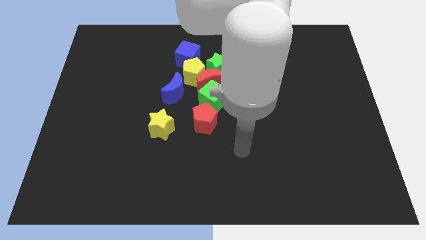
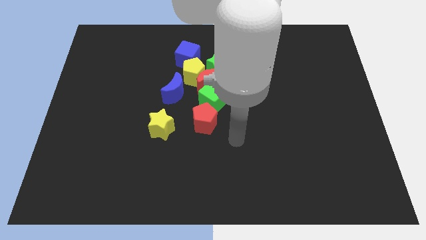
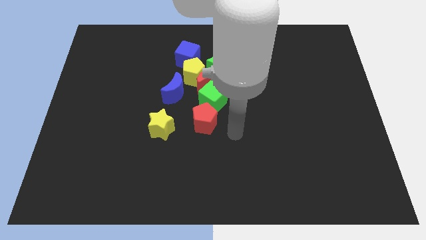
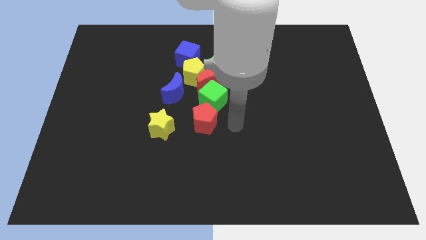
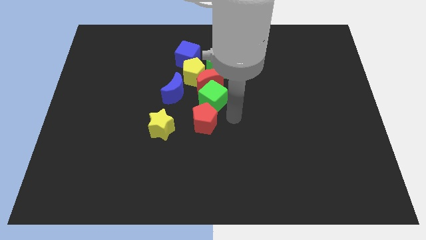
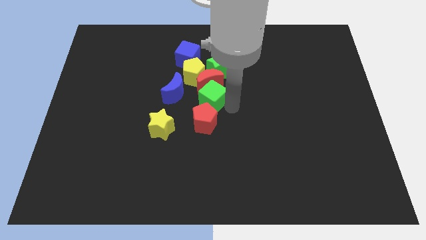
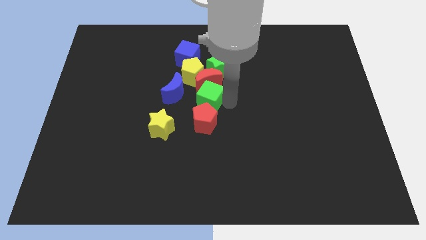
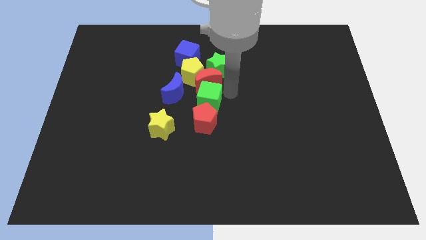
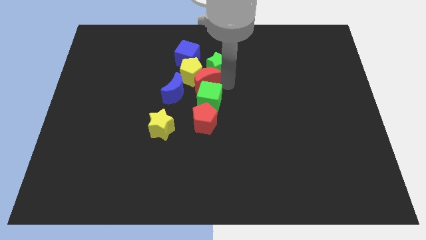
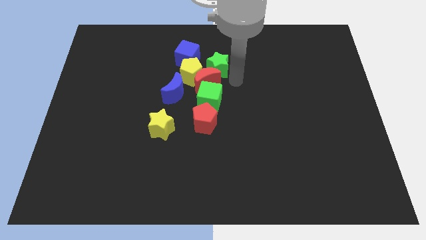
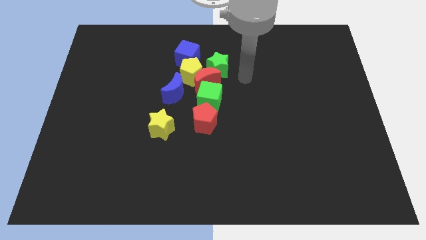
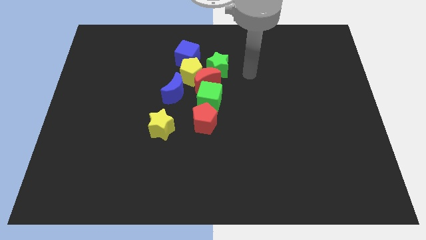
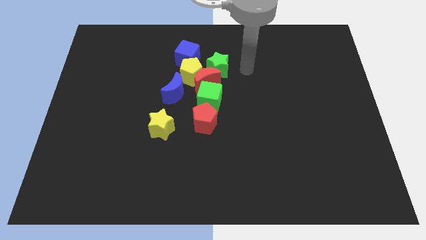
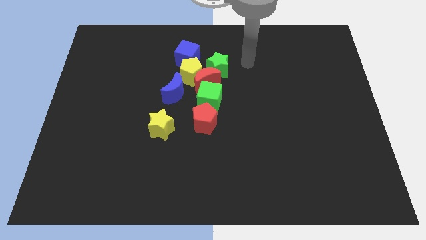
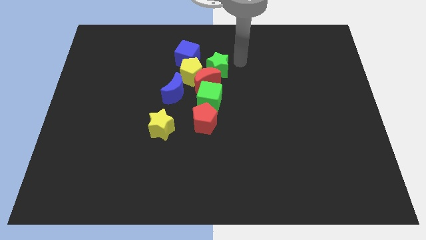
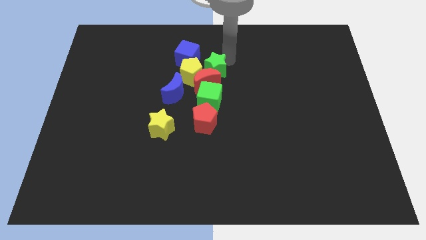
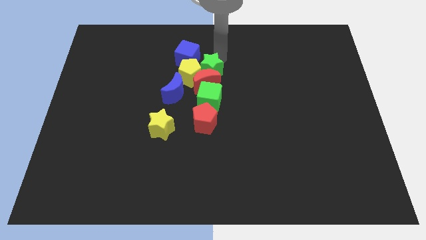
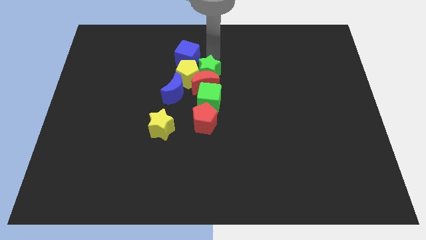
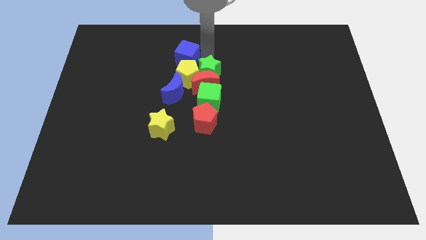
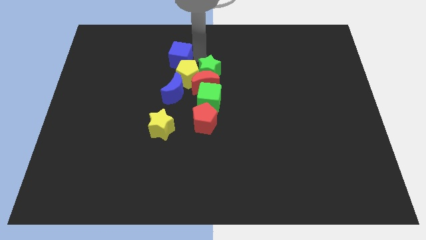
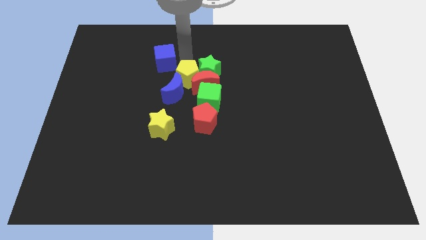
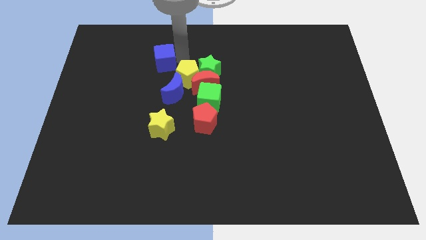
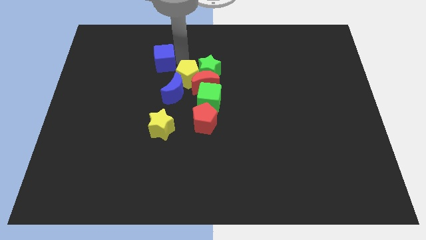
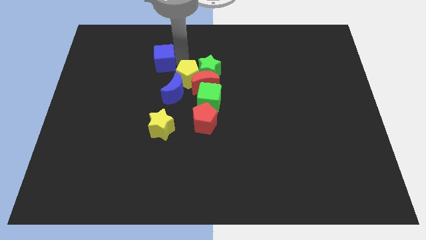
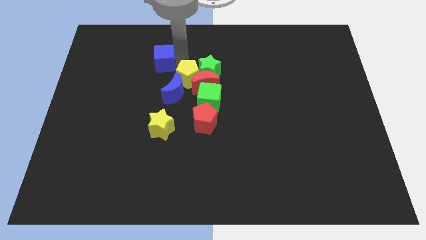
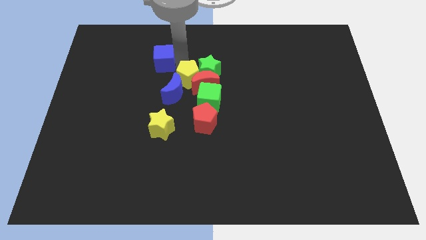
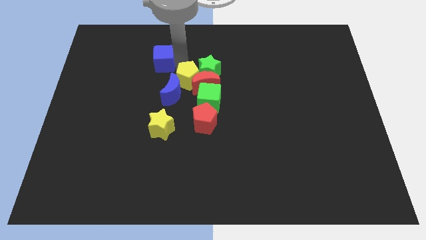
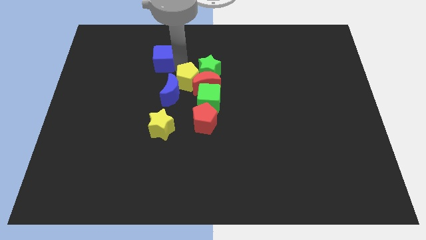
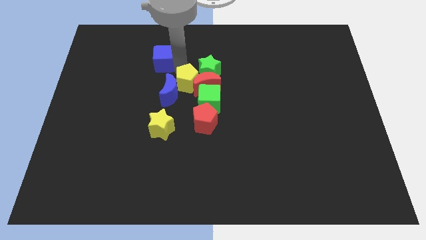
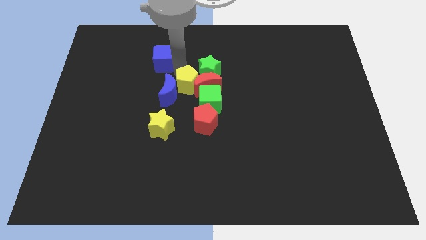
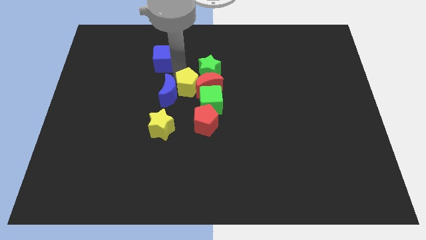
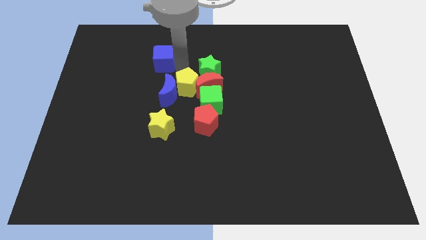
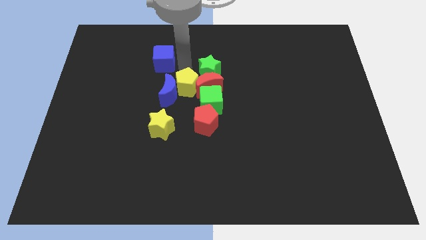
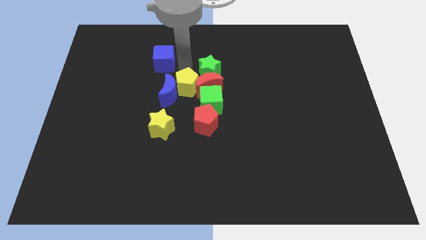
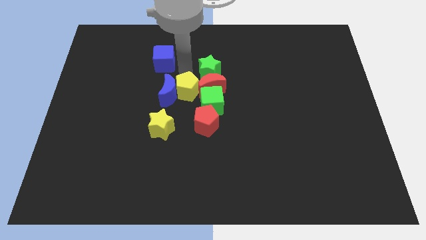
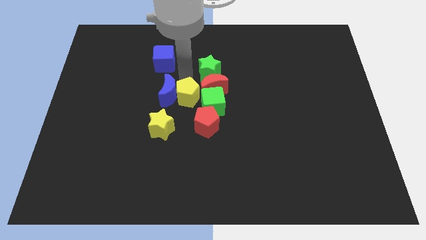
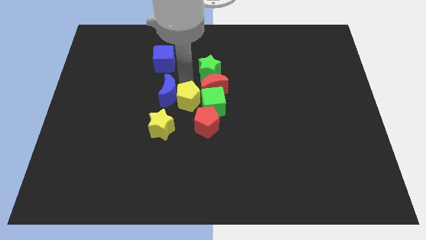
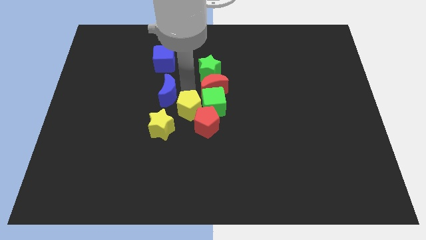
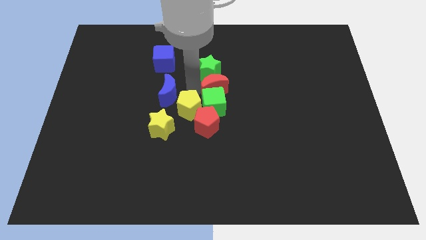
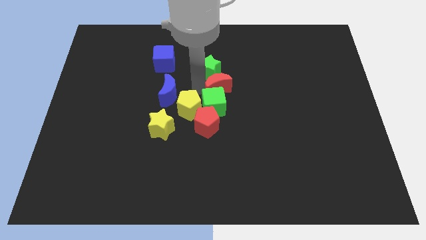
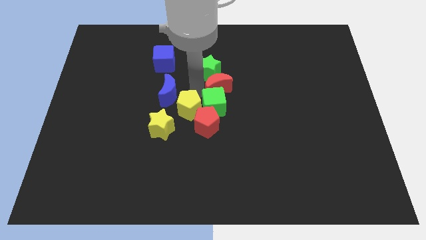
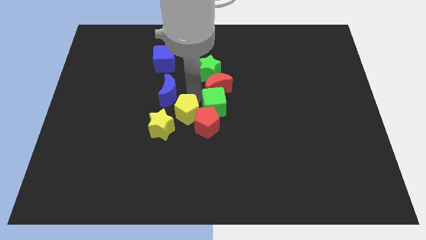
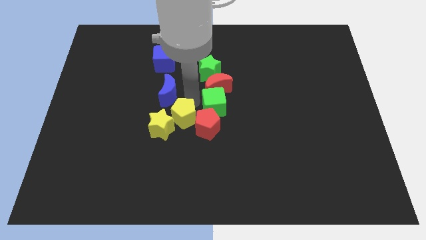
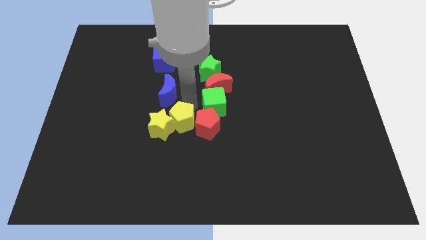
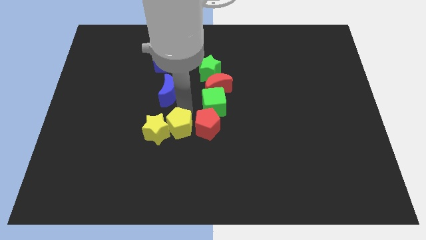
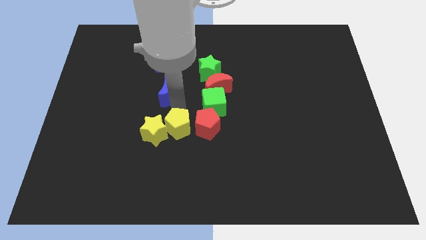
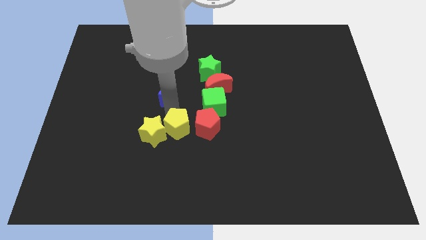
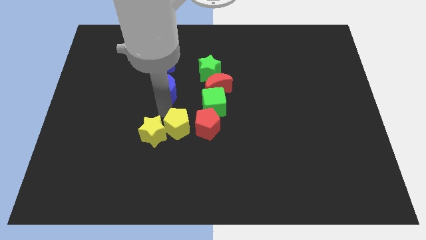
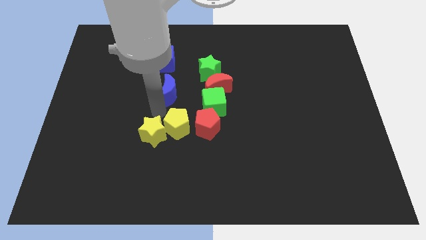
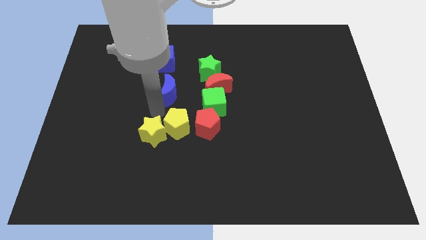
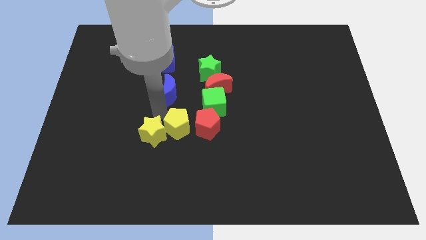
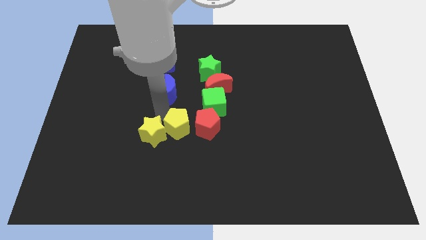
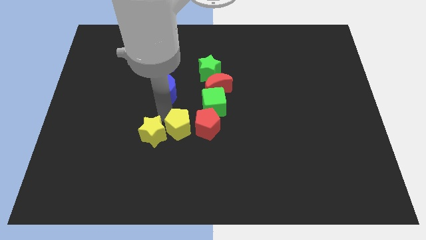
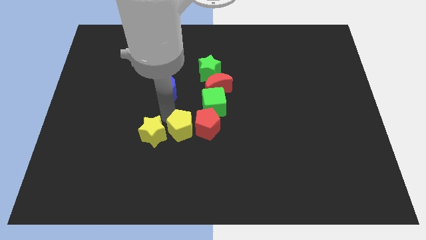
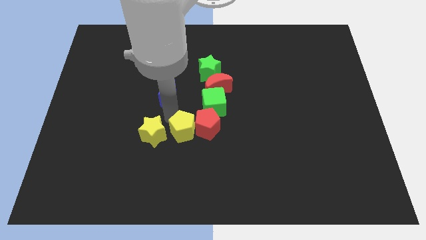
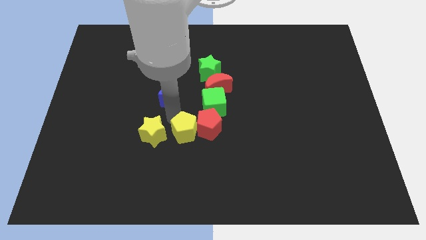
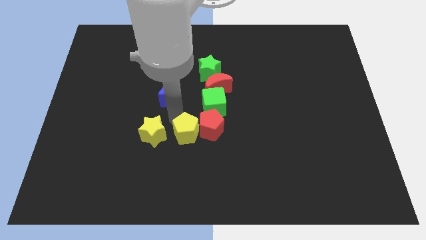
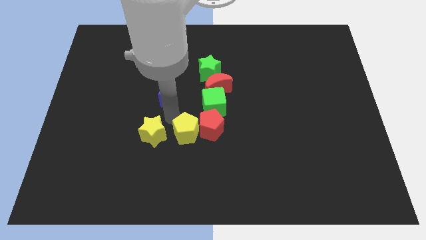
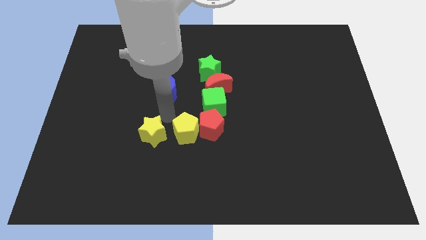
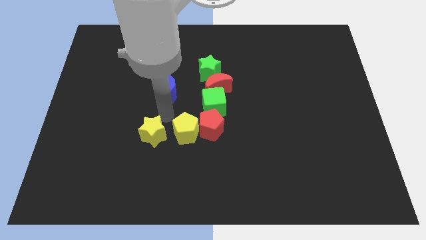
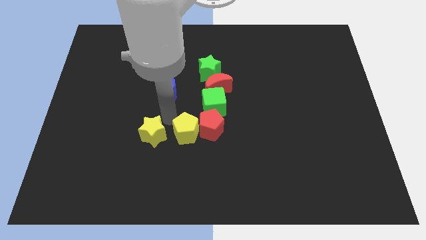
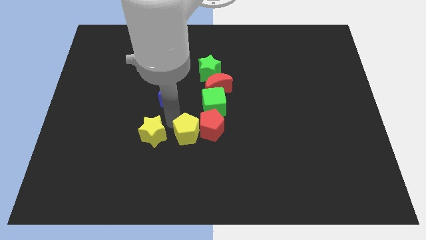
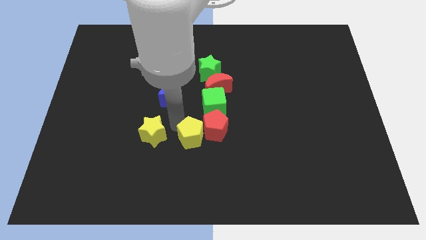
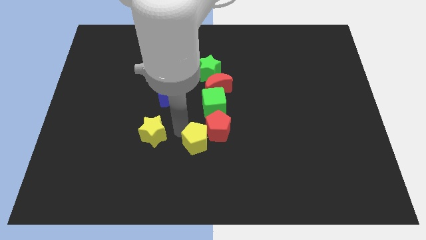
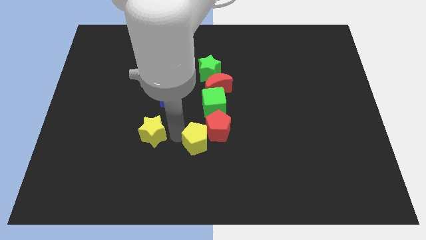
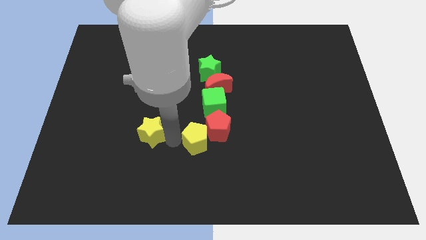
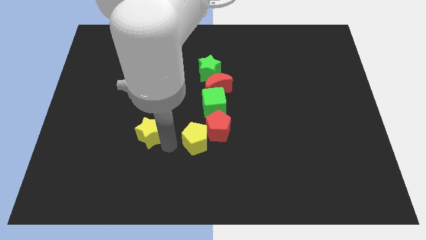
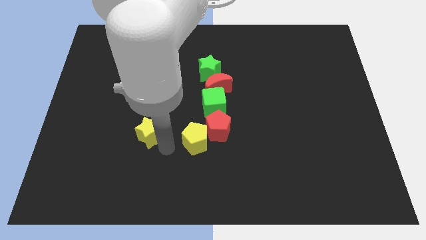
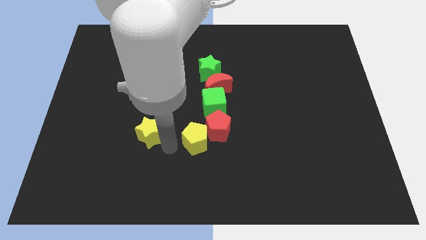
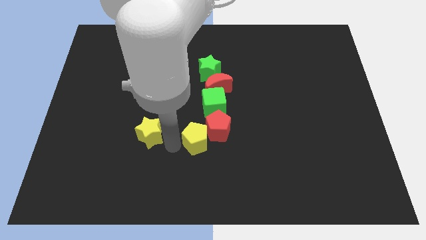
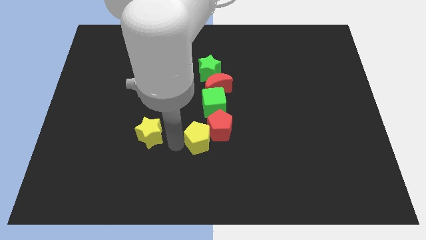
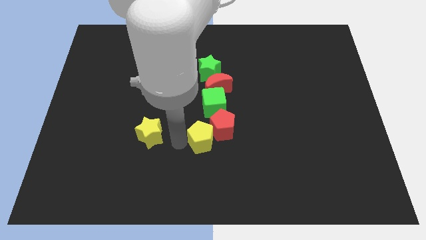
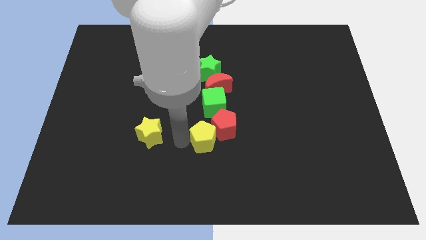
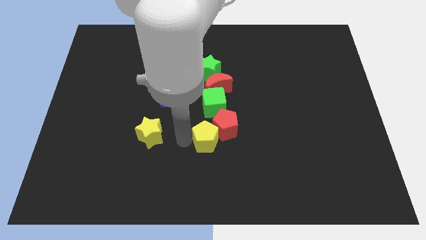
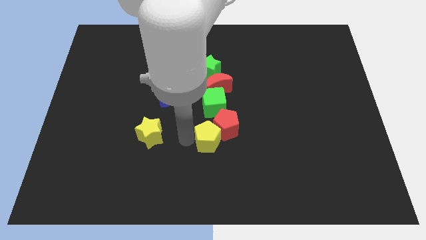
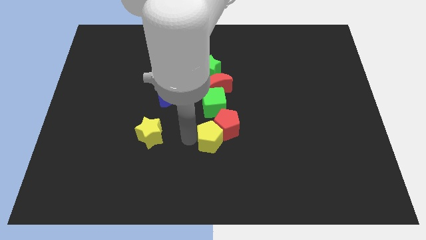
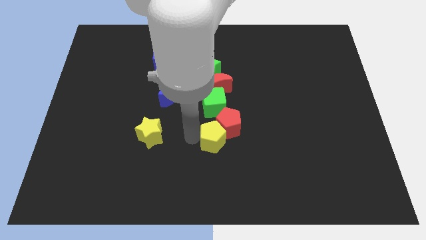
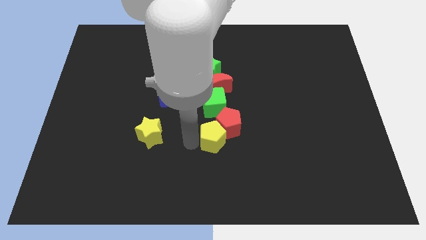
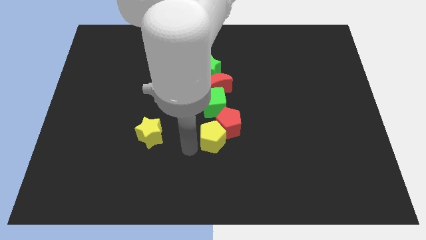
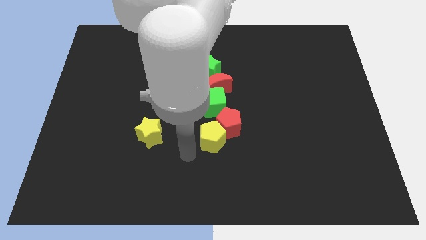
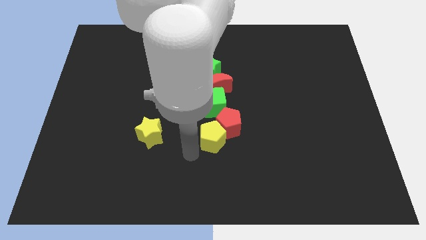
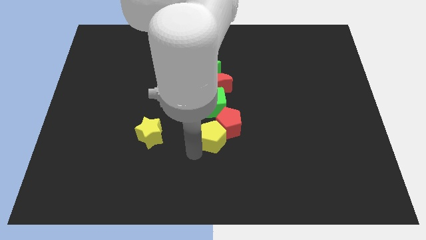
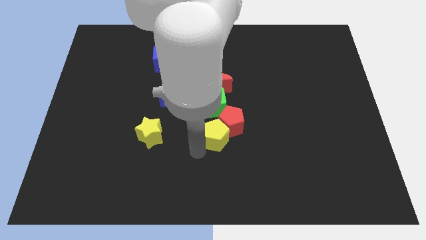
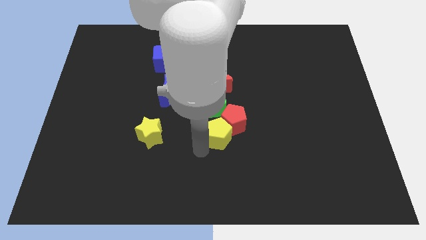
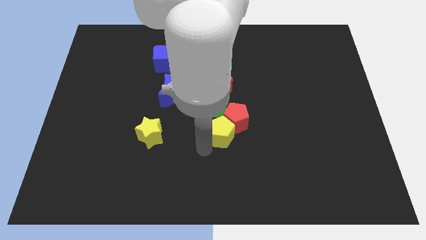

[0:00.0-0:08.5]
put the yellow pentagon diagonally down and to the right of the green cube
